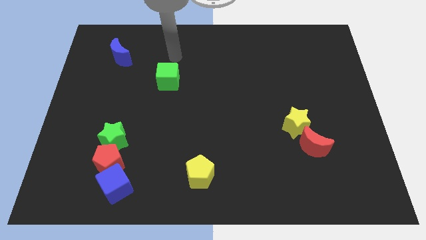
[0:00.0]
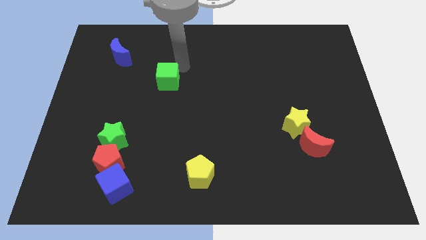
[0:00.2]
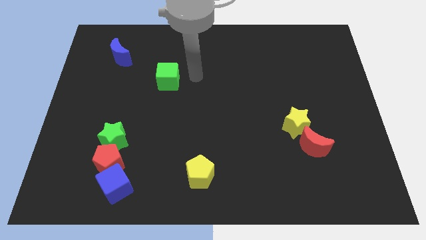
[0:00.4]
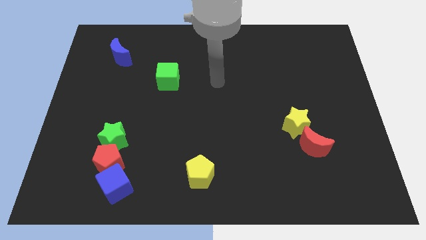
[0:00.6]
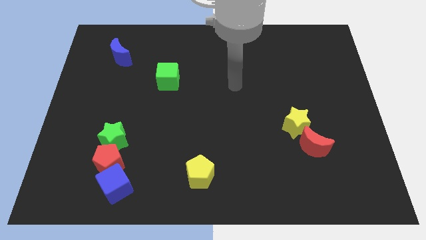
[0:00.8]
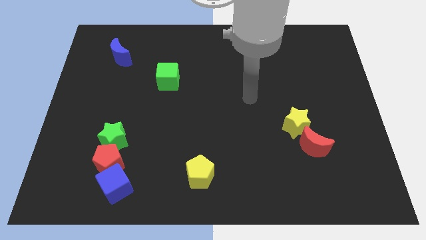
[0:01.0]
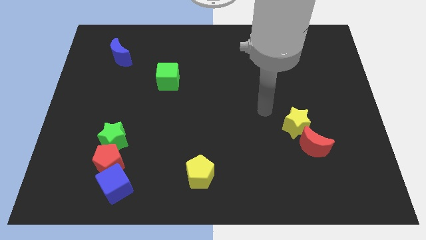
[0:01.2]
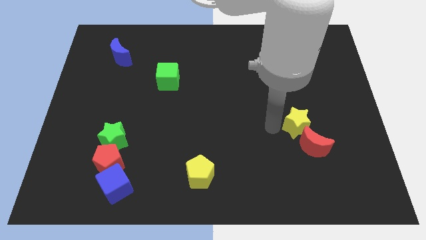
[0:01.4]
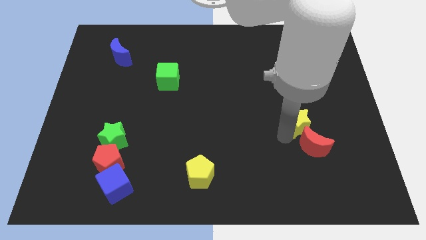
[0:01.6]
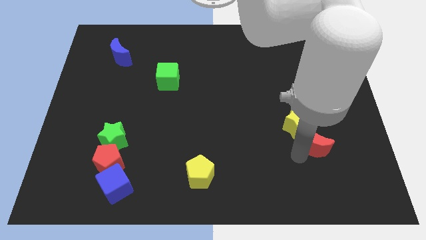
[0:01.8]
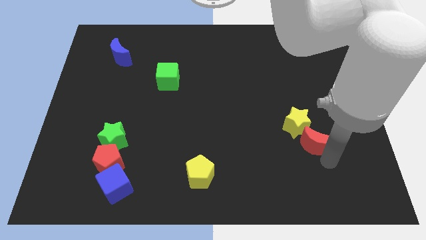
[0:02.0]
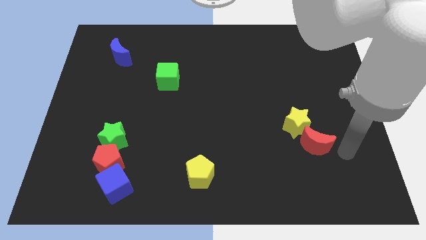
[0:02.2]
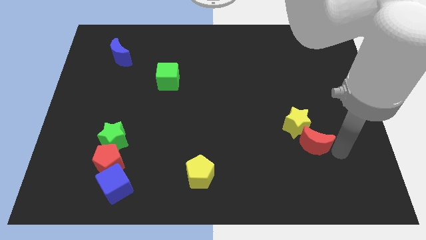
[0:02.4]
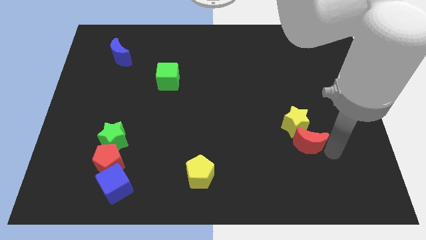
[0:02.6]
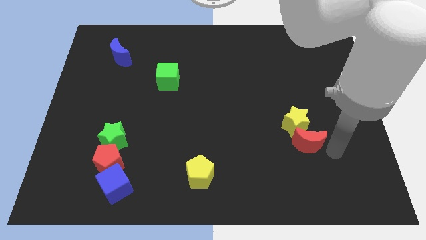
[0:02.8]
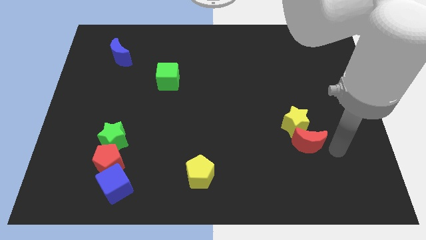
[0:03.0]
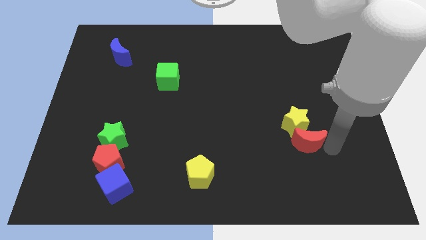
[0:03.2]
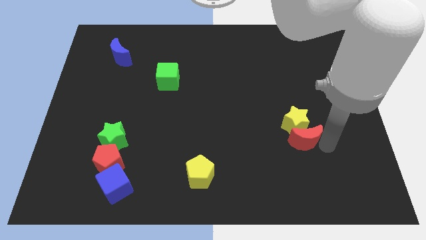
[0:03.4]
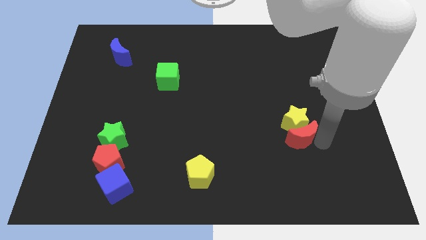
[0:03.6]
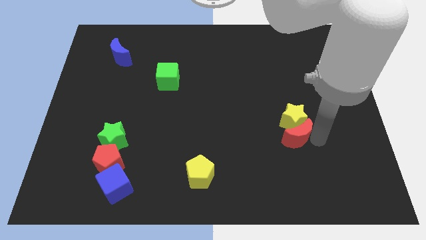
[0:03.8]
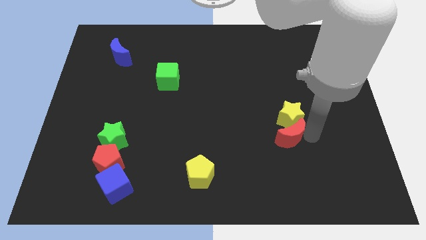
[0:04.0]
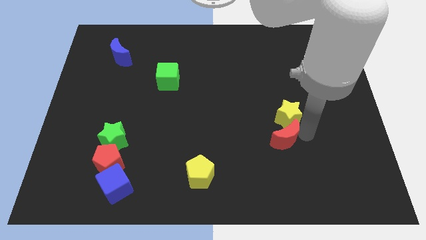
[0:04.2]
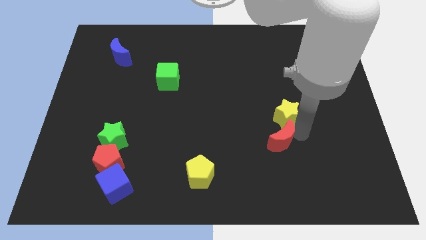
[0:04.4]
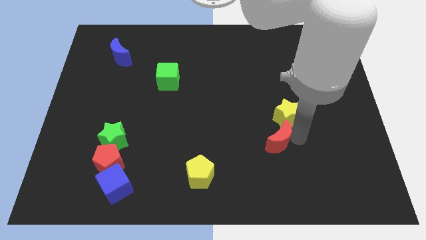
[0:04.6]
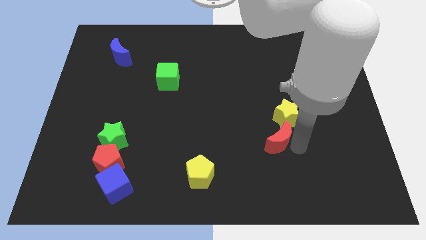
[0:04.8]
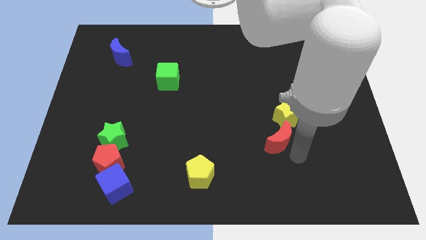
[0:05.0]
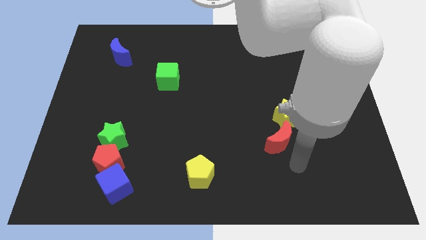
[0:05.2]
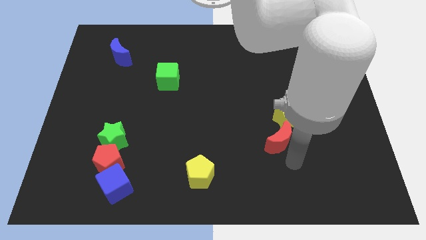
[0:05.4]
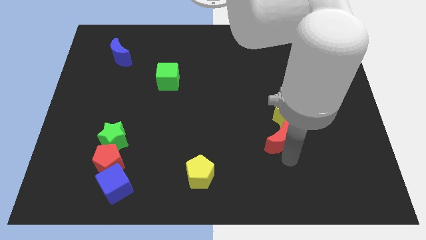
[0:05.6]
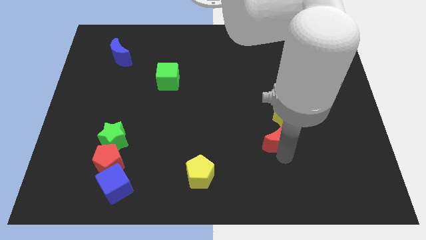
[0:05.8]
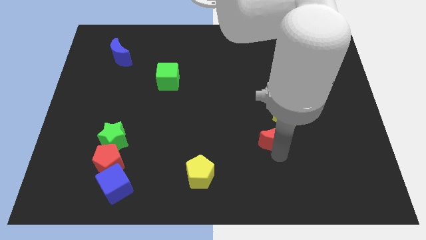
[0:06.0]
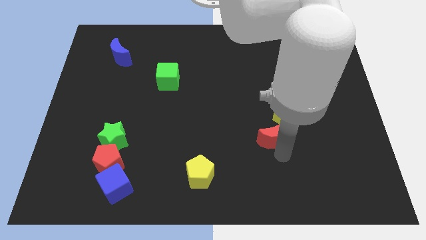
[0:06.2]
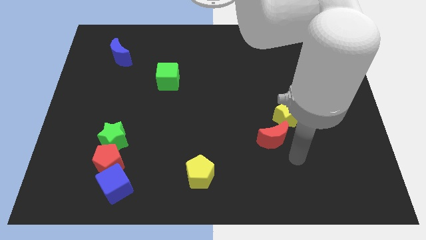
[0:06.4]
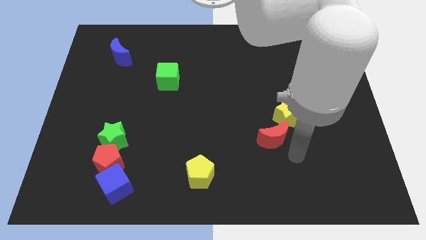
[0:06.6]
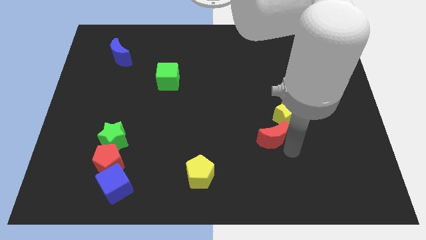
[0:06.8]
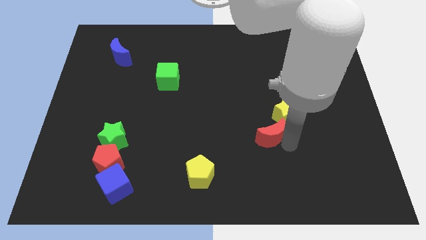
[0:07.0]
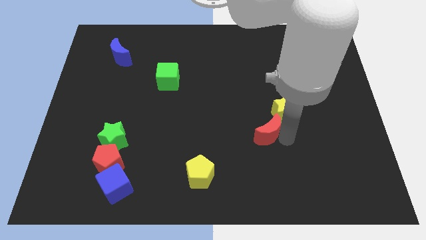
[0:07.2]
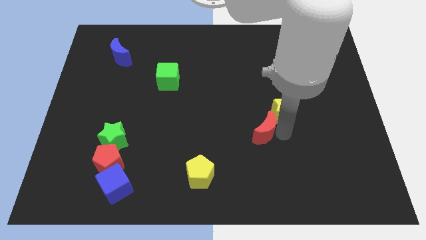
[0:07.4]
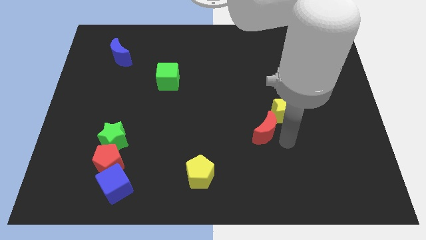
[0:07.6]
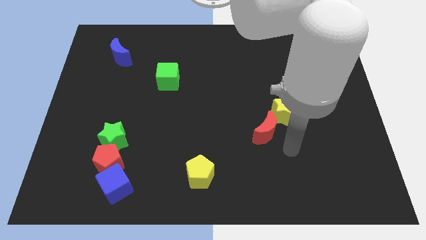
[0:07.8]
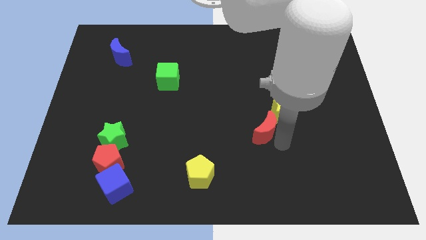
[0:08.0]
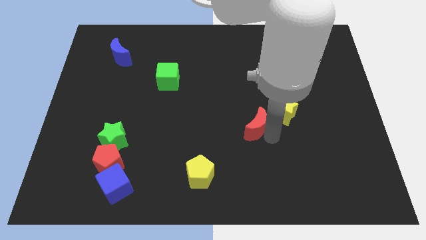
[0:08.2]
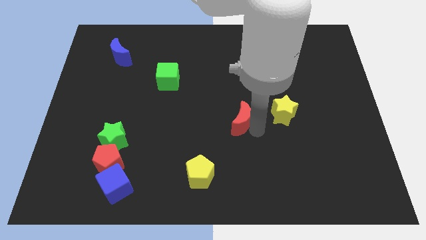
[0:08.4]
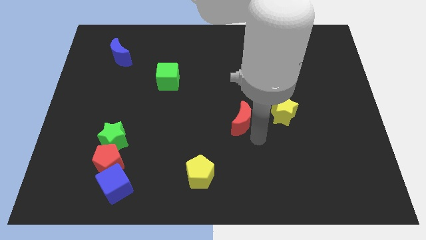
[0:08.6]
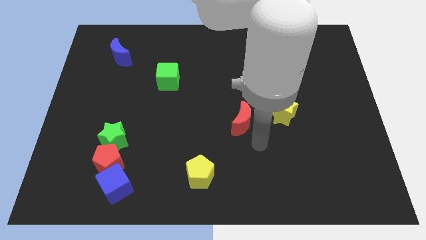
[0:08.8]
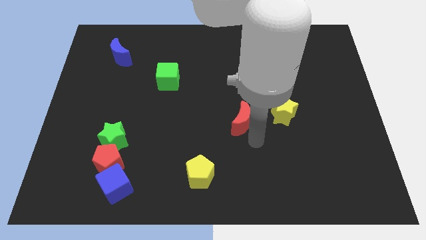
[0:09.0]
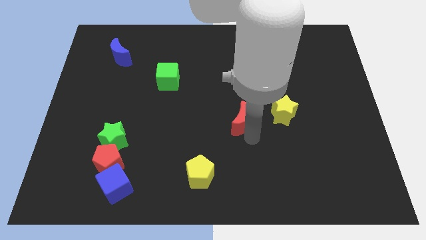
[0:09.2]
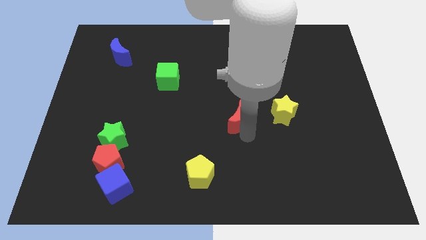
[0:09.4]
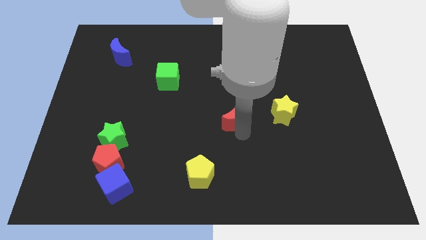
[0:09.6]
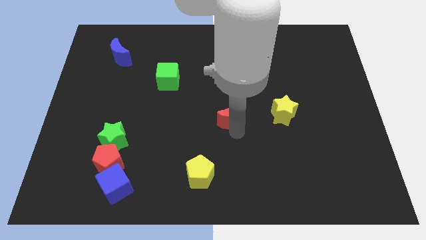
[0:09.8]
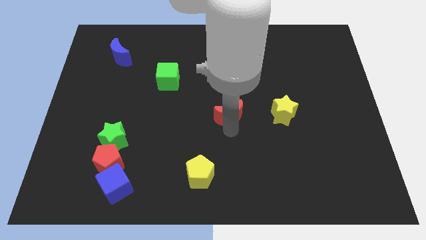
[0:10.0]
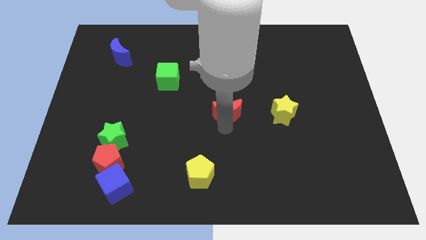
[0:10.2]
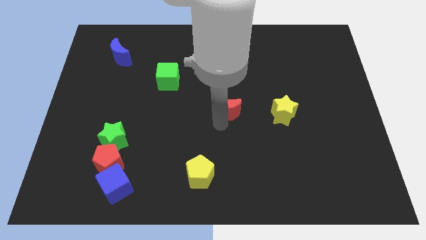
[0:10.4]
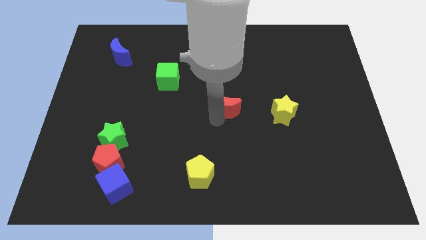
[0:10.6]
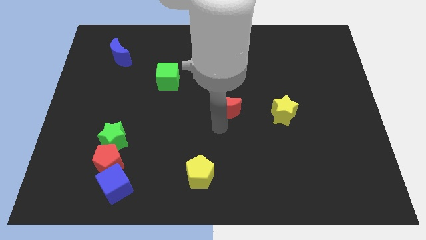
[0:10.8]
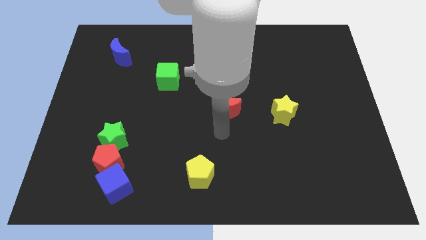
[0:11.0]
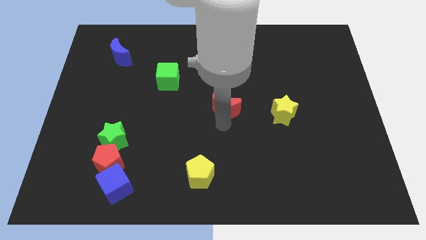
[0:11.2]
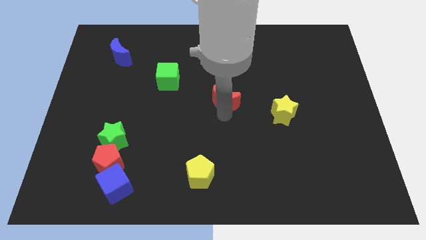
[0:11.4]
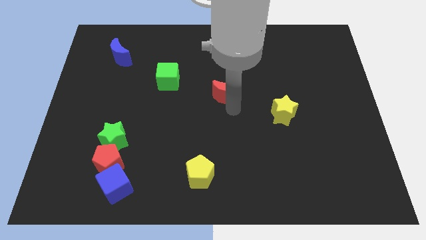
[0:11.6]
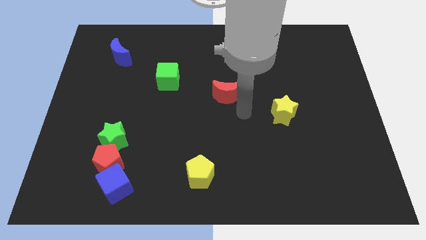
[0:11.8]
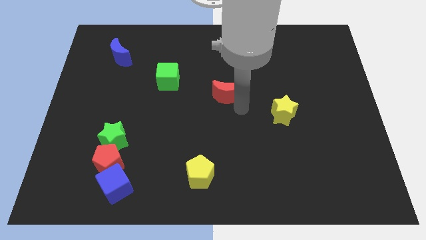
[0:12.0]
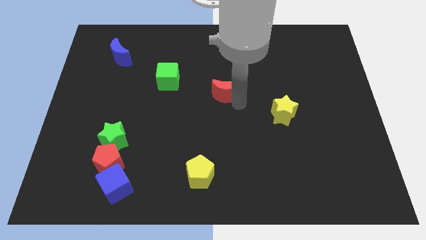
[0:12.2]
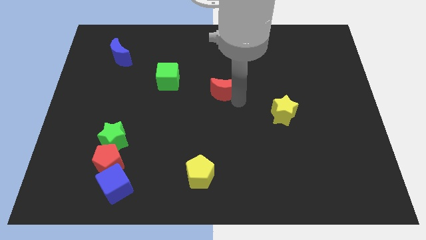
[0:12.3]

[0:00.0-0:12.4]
move the red moon to the right side of the green cube

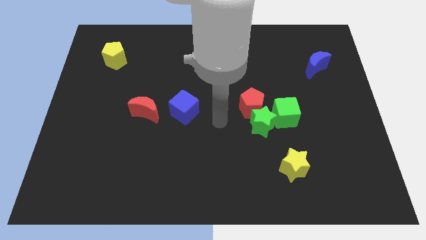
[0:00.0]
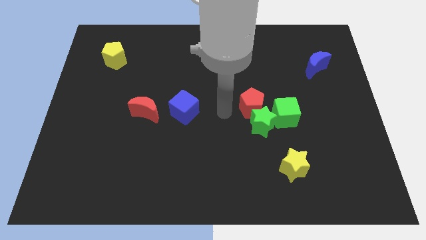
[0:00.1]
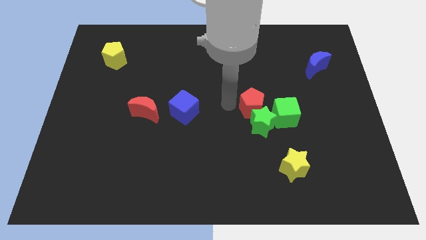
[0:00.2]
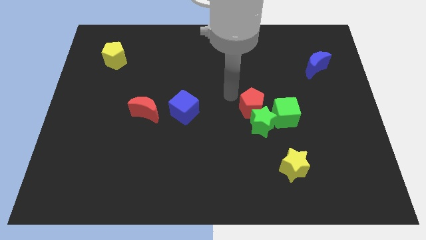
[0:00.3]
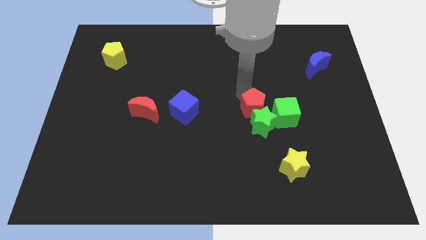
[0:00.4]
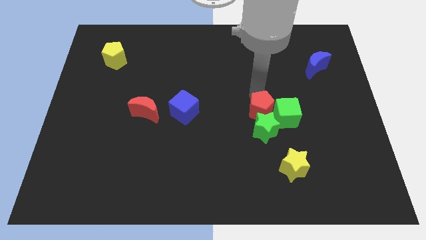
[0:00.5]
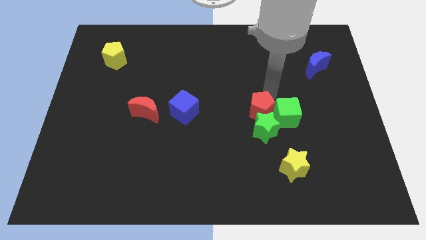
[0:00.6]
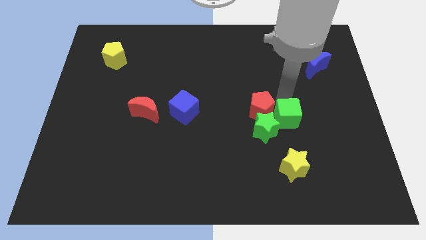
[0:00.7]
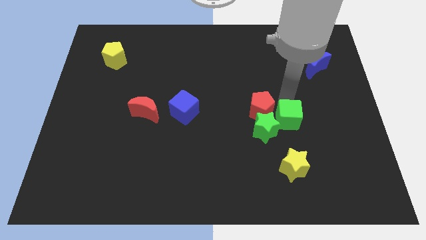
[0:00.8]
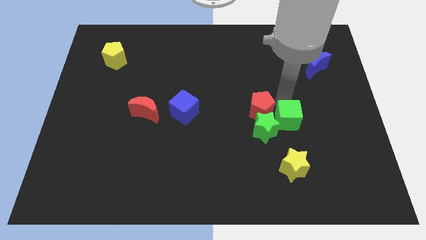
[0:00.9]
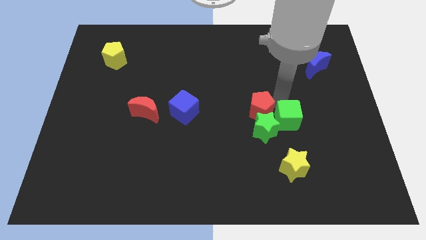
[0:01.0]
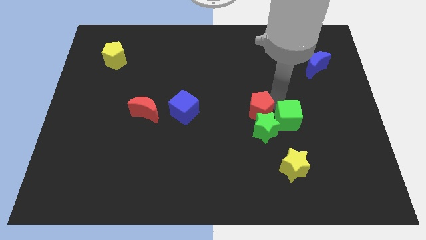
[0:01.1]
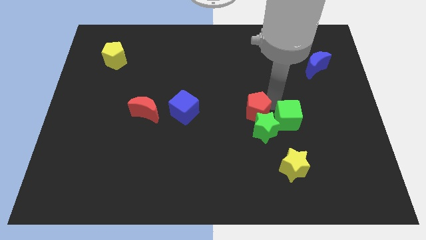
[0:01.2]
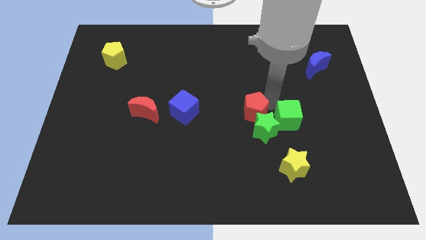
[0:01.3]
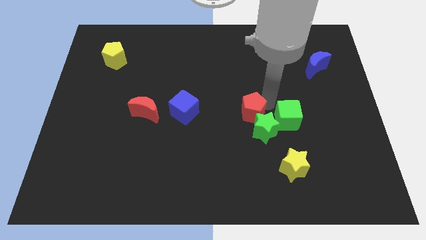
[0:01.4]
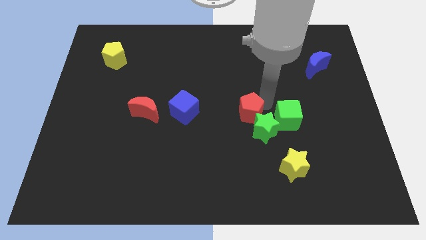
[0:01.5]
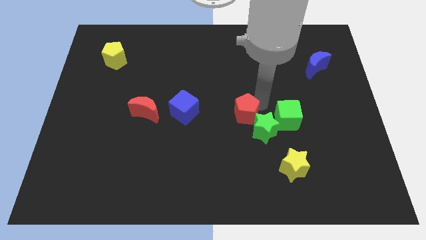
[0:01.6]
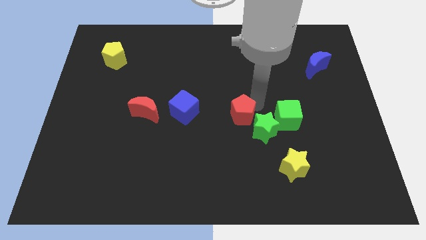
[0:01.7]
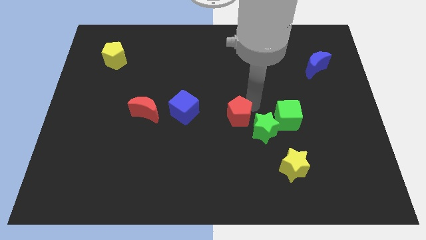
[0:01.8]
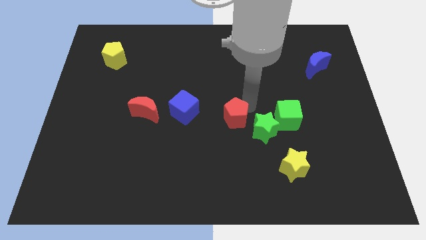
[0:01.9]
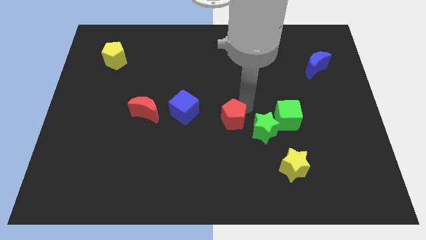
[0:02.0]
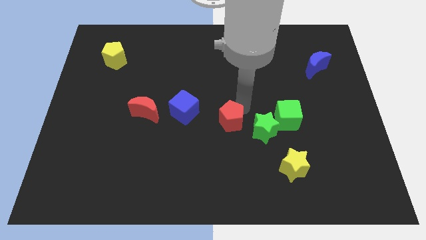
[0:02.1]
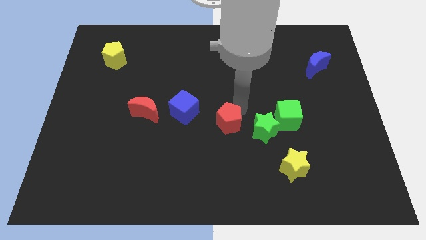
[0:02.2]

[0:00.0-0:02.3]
move the red pentagon to the bottom right side of the blue cube
